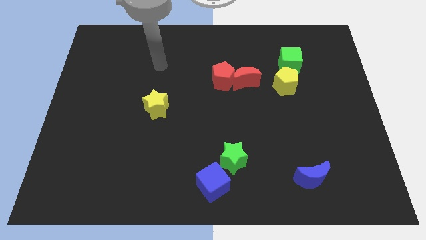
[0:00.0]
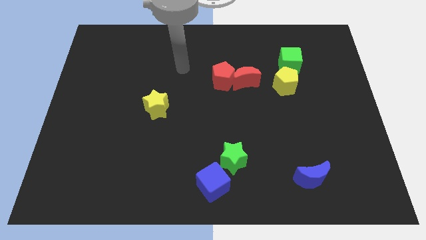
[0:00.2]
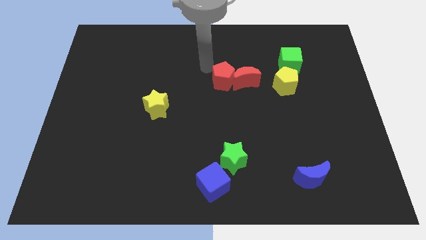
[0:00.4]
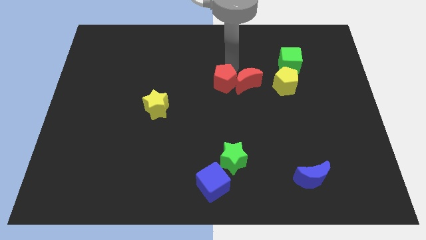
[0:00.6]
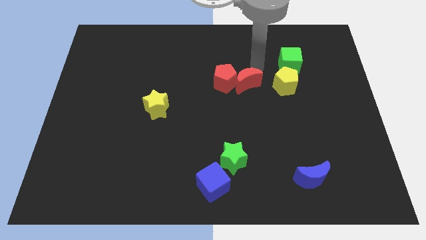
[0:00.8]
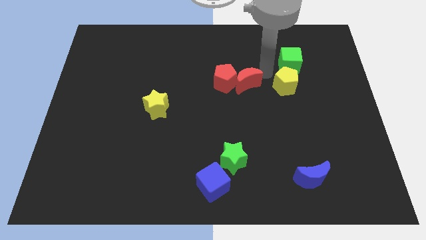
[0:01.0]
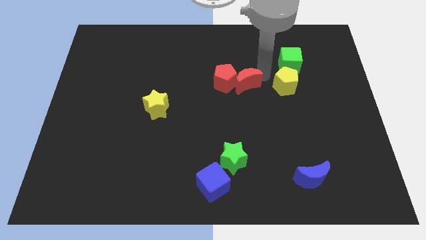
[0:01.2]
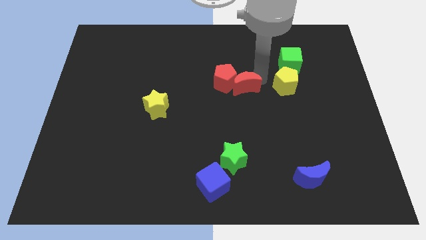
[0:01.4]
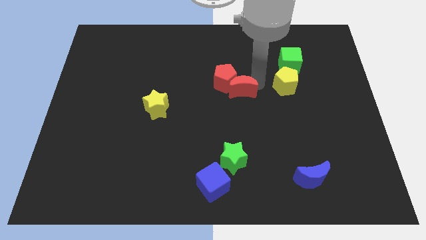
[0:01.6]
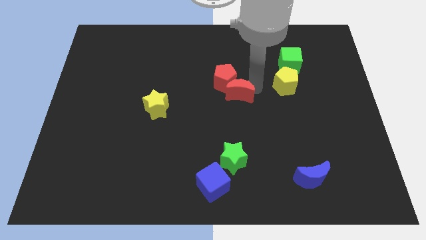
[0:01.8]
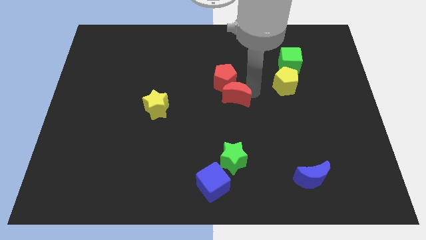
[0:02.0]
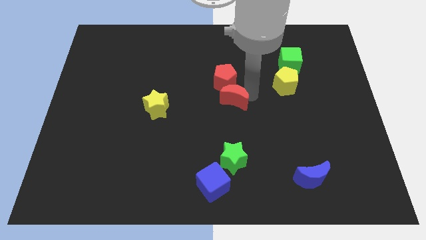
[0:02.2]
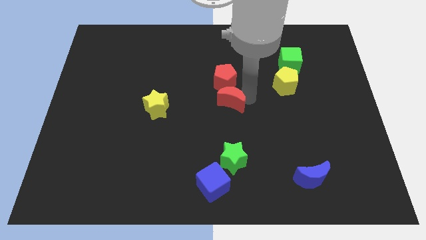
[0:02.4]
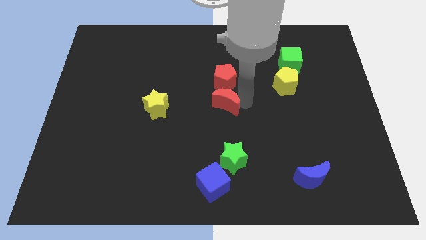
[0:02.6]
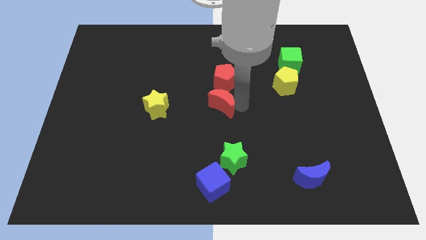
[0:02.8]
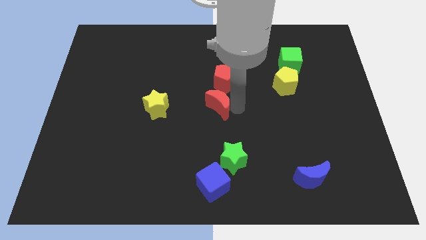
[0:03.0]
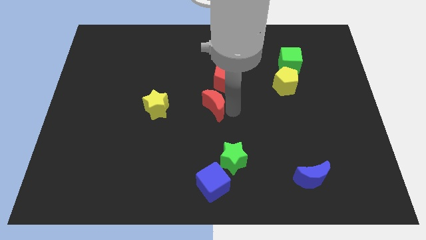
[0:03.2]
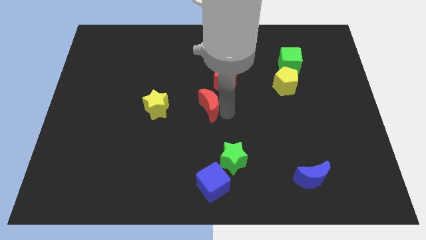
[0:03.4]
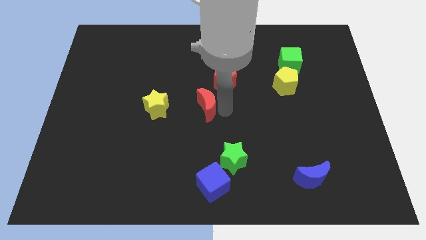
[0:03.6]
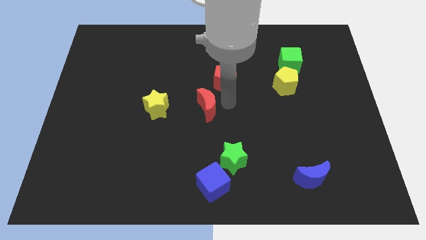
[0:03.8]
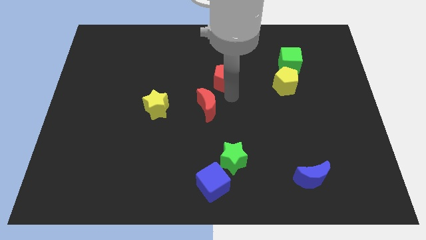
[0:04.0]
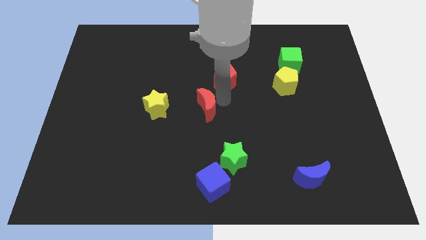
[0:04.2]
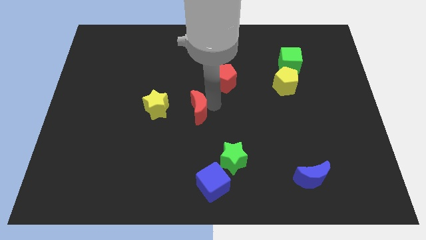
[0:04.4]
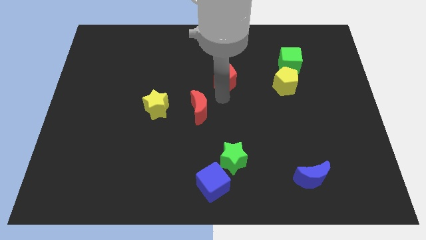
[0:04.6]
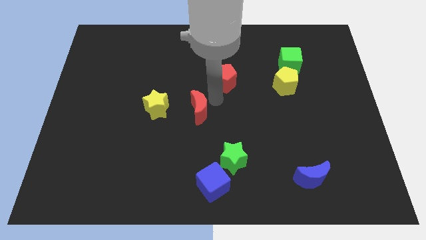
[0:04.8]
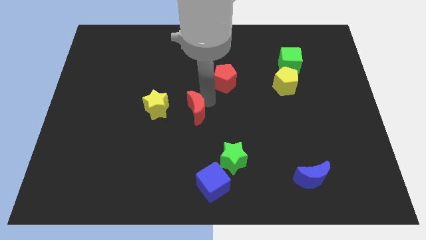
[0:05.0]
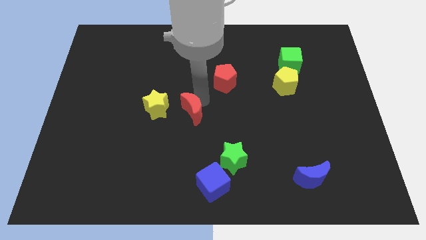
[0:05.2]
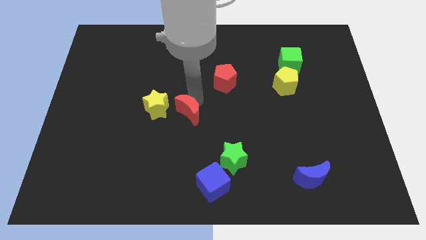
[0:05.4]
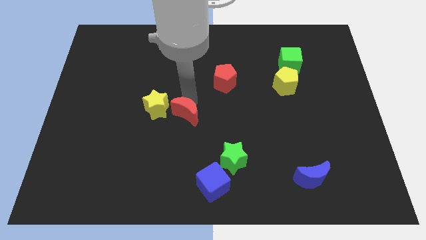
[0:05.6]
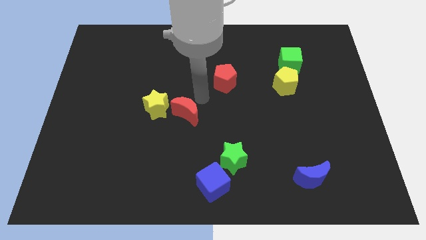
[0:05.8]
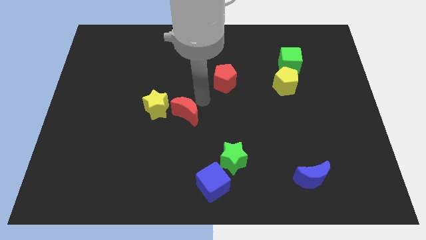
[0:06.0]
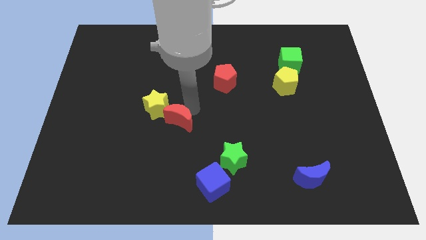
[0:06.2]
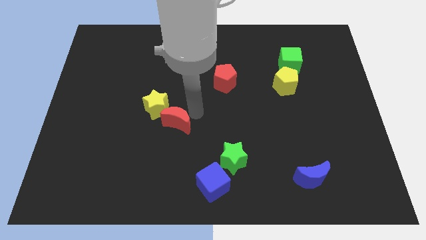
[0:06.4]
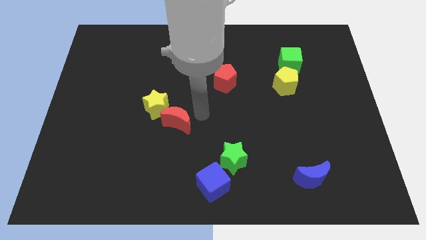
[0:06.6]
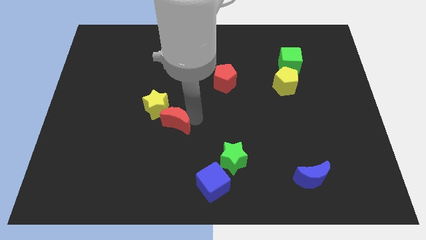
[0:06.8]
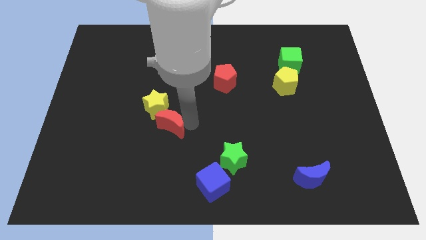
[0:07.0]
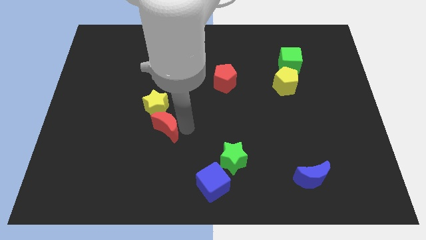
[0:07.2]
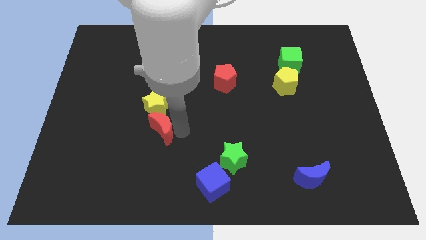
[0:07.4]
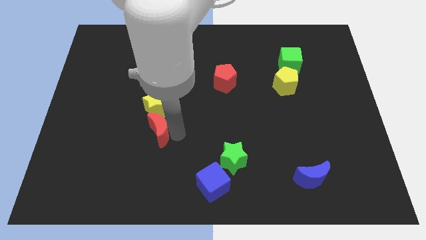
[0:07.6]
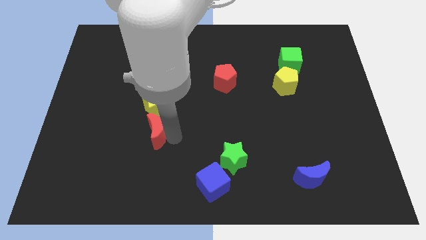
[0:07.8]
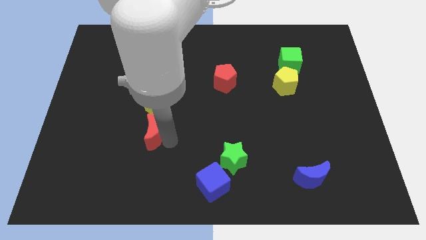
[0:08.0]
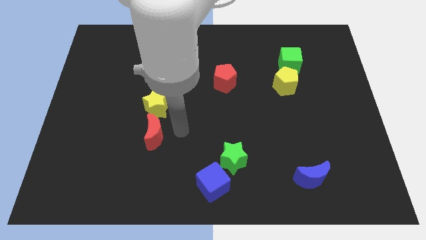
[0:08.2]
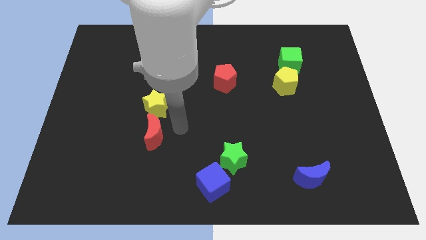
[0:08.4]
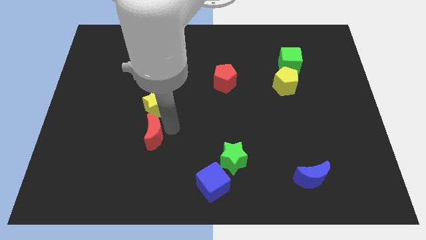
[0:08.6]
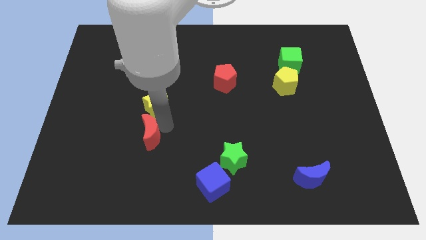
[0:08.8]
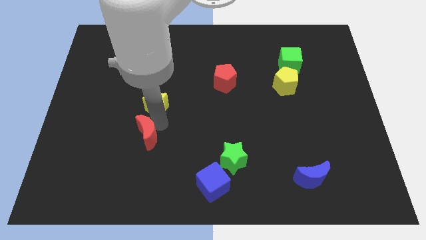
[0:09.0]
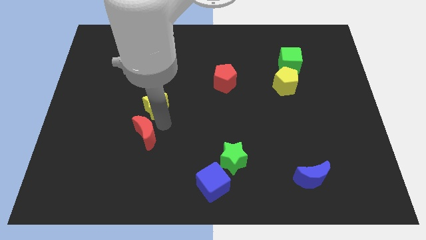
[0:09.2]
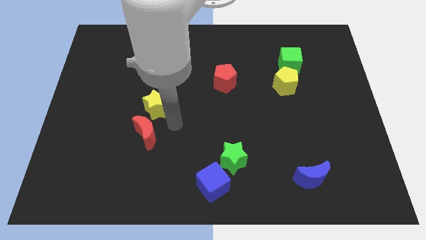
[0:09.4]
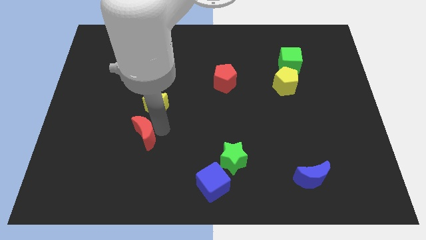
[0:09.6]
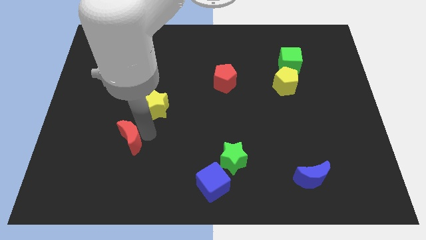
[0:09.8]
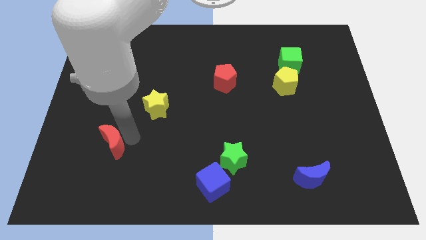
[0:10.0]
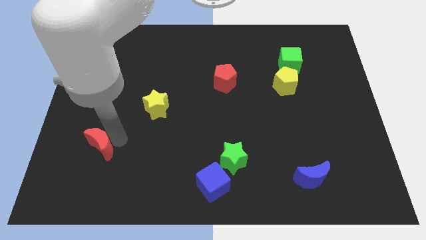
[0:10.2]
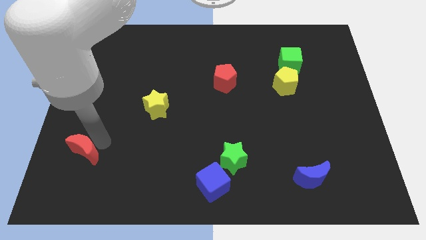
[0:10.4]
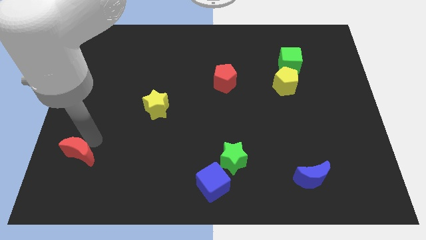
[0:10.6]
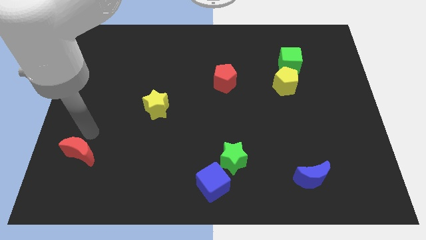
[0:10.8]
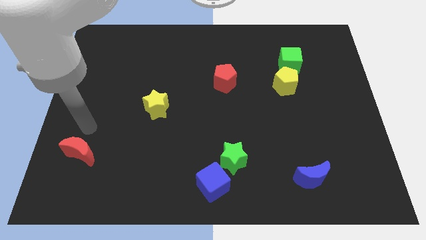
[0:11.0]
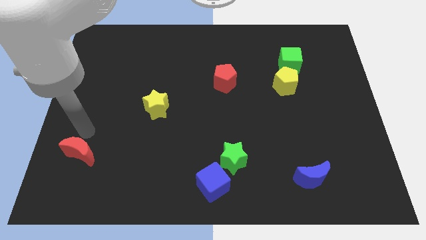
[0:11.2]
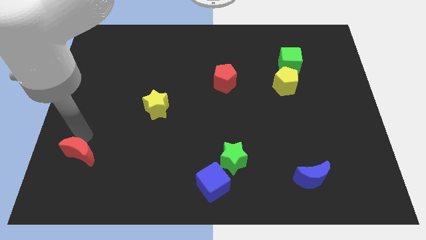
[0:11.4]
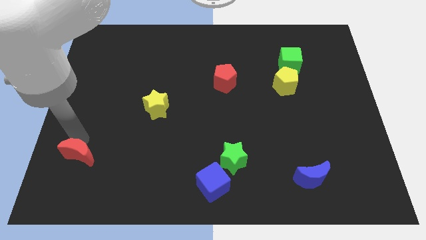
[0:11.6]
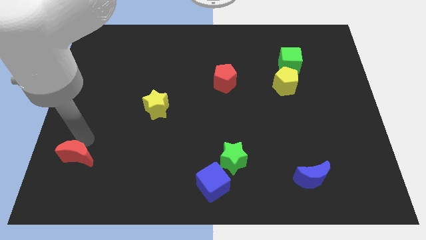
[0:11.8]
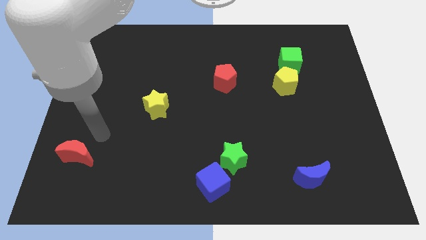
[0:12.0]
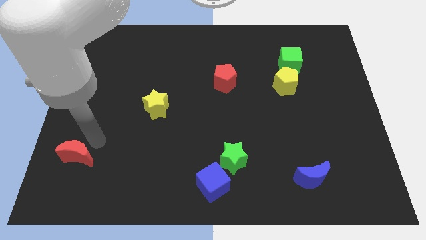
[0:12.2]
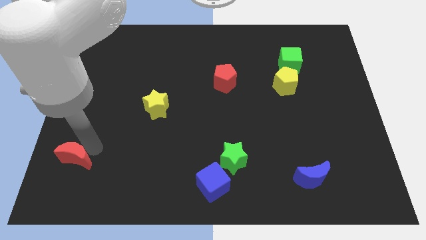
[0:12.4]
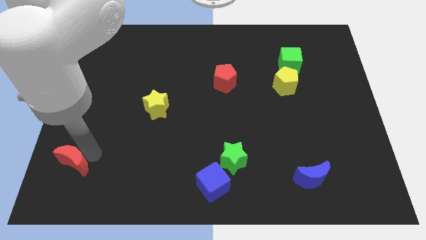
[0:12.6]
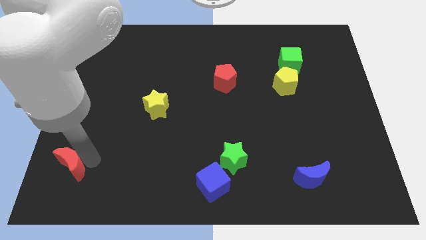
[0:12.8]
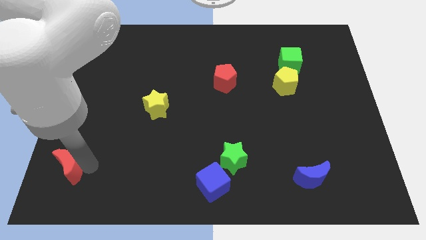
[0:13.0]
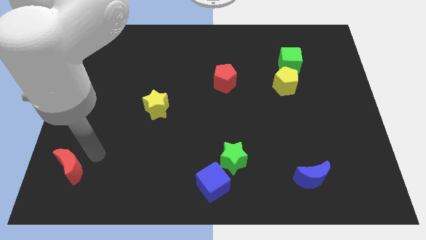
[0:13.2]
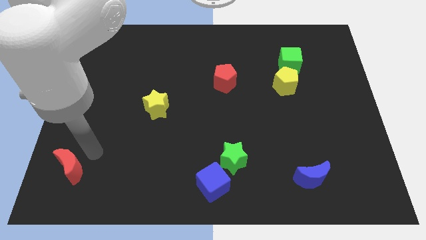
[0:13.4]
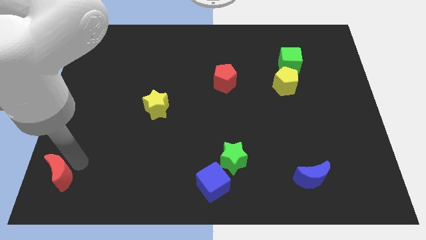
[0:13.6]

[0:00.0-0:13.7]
slide the red moon to the bottom left

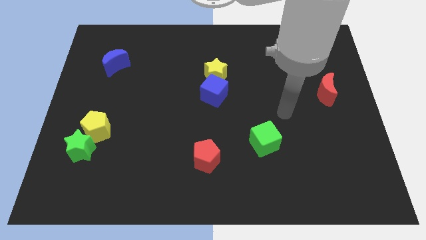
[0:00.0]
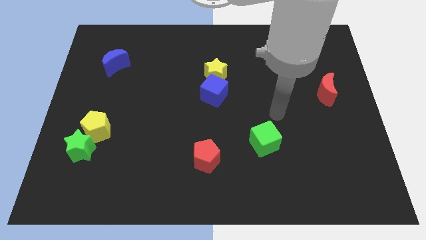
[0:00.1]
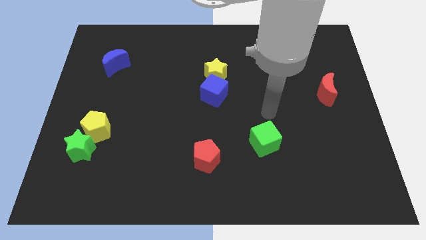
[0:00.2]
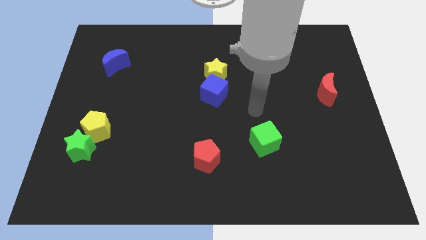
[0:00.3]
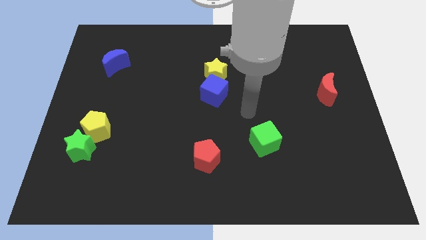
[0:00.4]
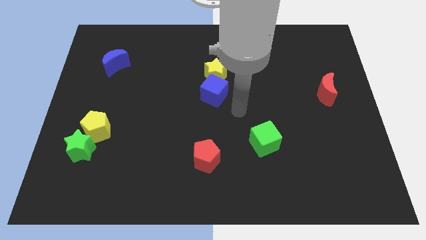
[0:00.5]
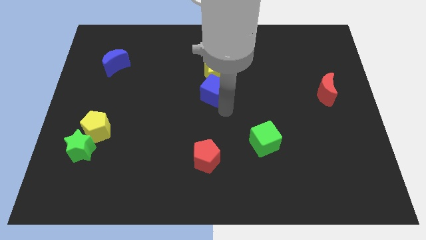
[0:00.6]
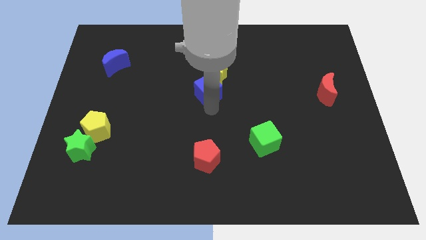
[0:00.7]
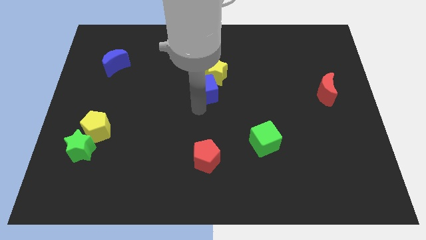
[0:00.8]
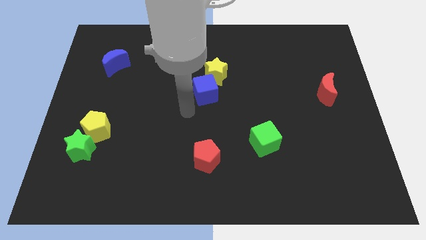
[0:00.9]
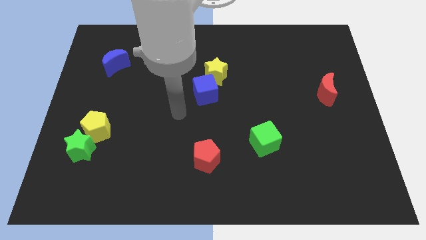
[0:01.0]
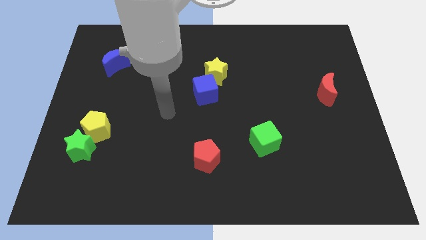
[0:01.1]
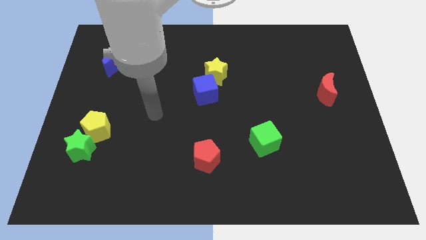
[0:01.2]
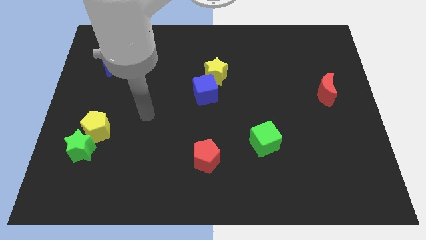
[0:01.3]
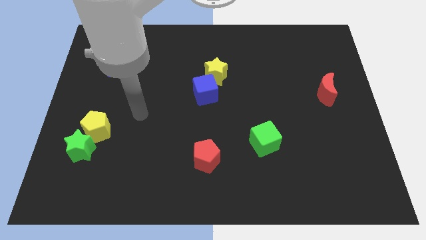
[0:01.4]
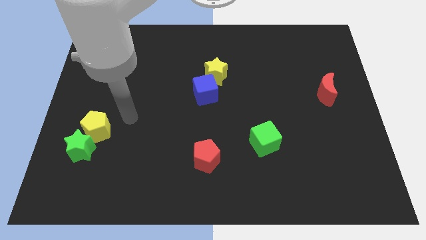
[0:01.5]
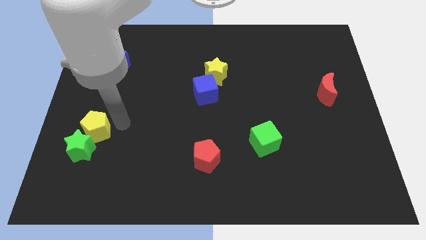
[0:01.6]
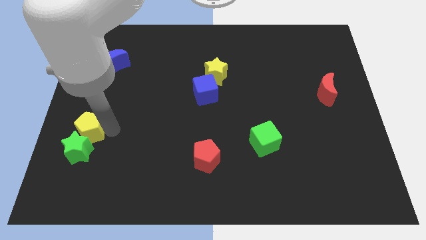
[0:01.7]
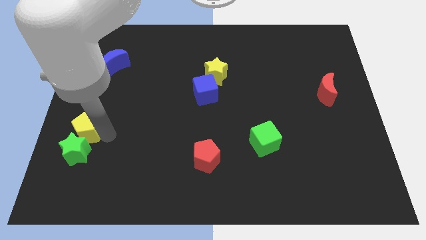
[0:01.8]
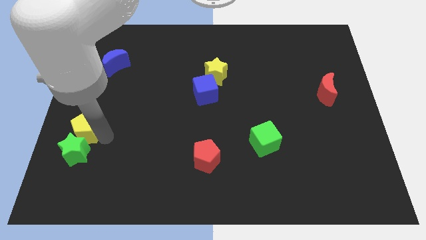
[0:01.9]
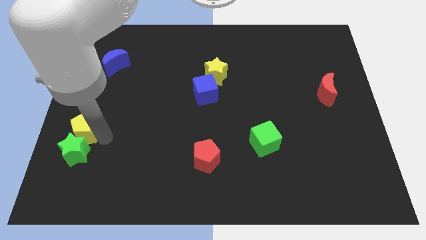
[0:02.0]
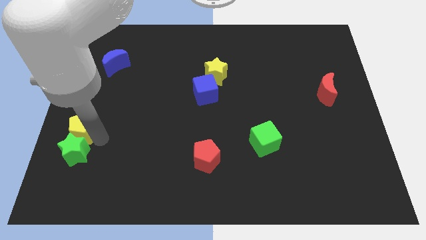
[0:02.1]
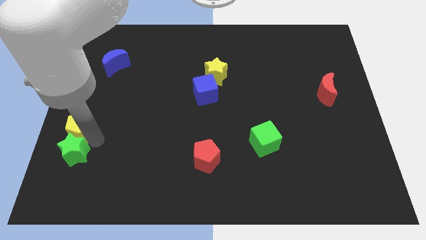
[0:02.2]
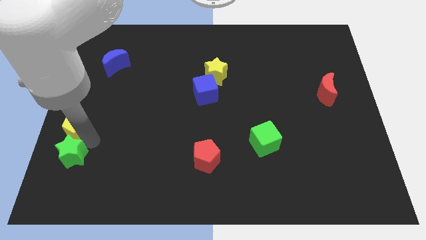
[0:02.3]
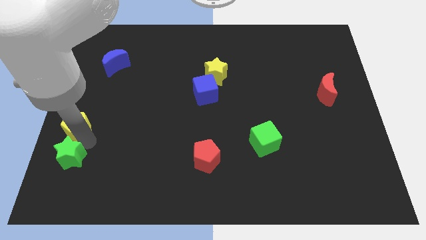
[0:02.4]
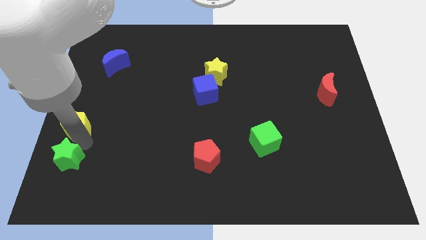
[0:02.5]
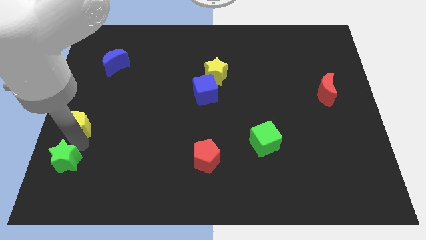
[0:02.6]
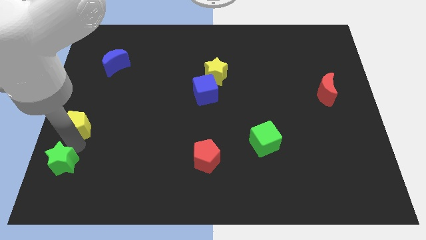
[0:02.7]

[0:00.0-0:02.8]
push the green star to the bottom left corner
